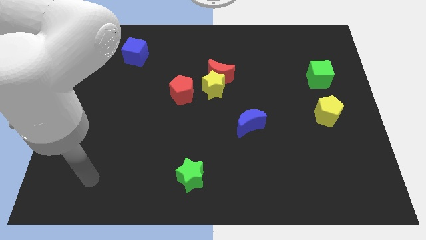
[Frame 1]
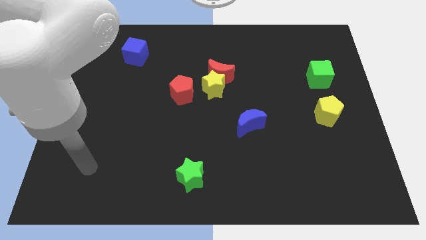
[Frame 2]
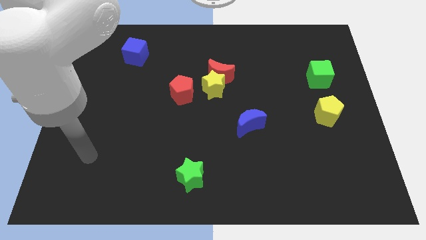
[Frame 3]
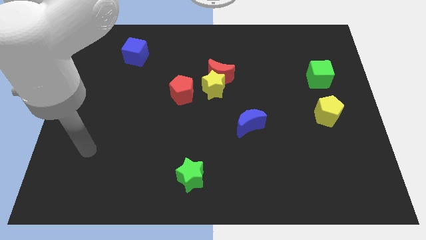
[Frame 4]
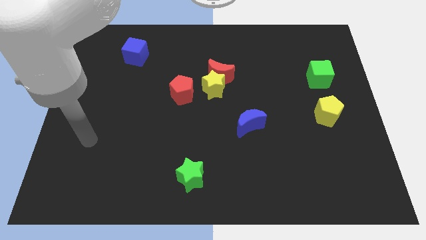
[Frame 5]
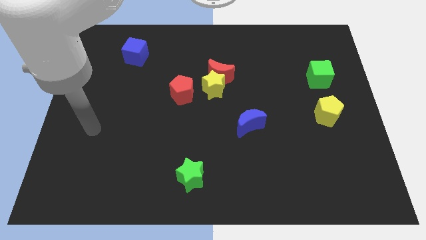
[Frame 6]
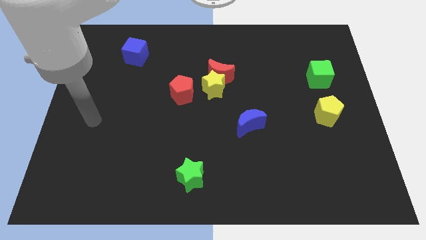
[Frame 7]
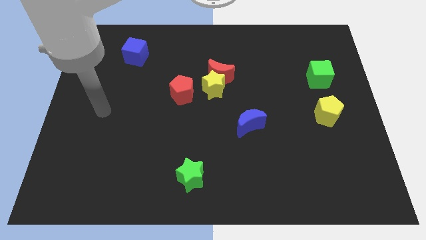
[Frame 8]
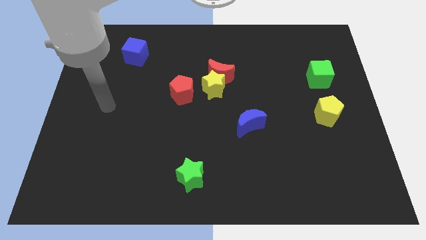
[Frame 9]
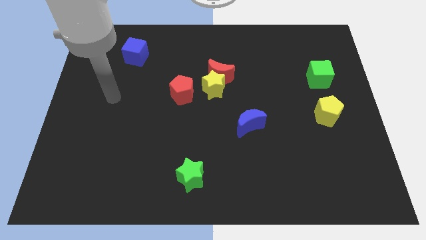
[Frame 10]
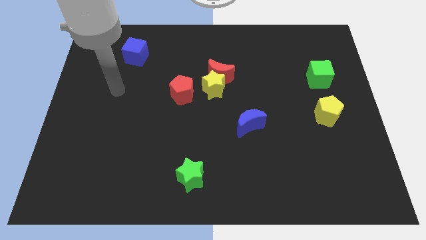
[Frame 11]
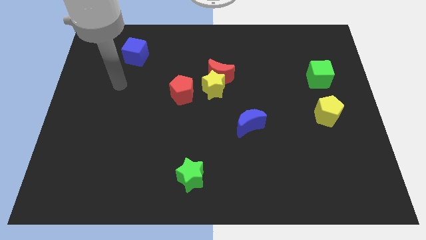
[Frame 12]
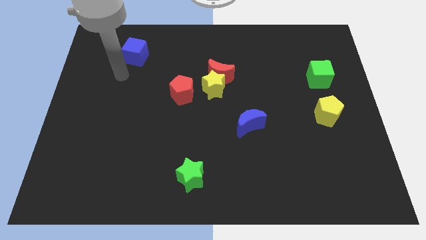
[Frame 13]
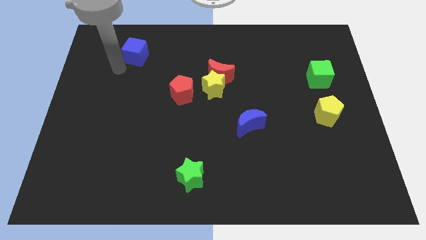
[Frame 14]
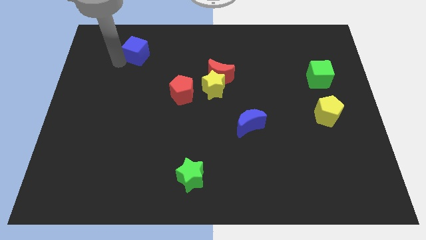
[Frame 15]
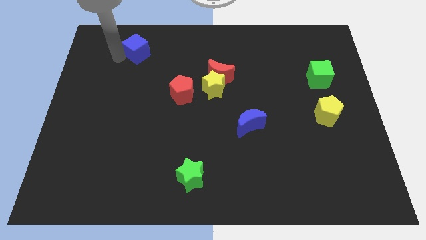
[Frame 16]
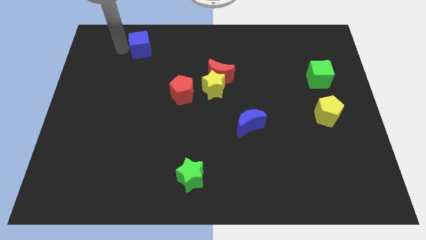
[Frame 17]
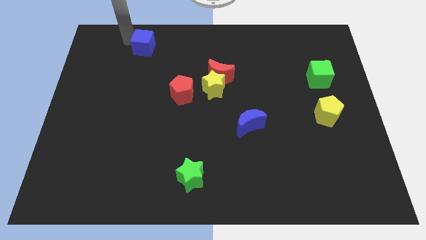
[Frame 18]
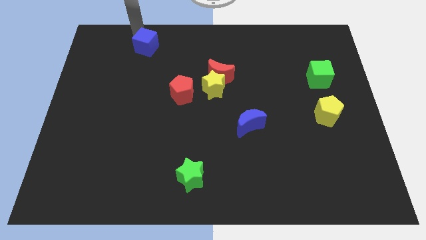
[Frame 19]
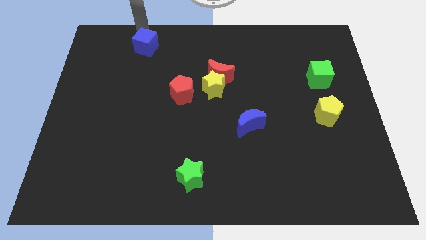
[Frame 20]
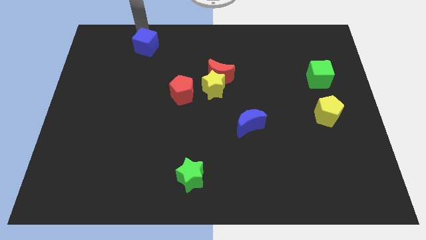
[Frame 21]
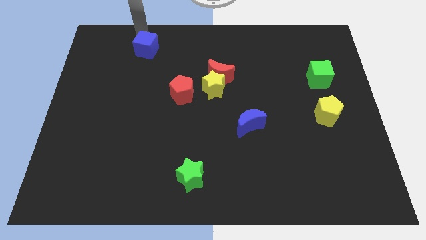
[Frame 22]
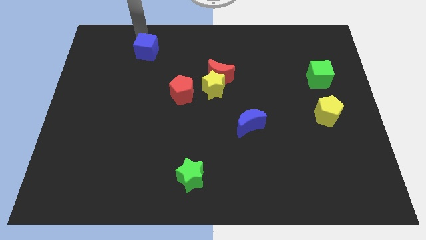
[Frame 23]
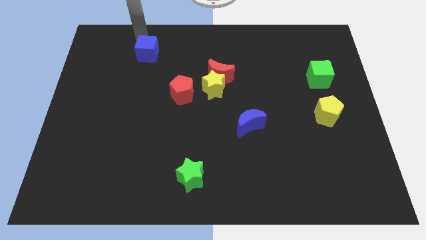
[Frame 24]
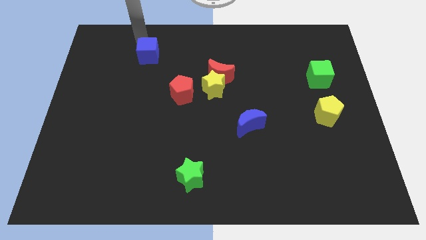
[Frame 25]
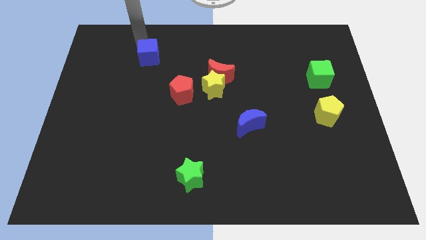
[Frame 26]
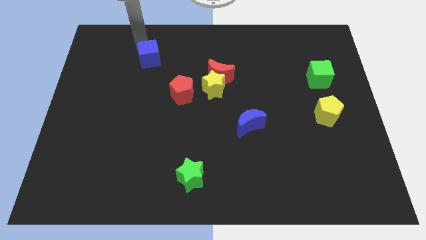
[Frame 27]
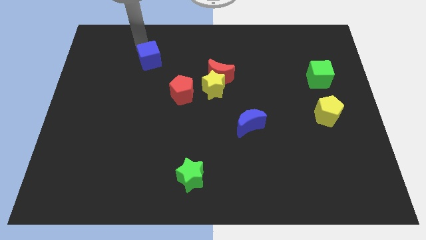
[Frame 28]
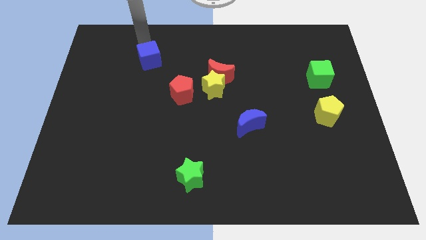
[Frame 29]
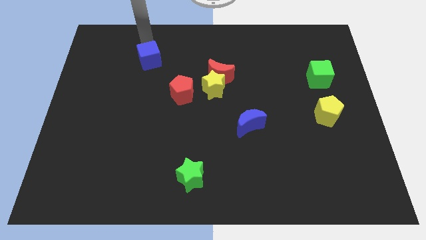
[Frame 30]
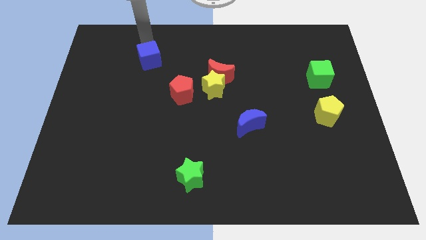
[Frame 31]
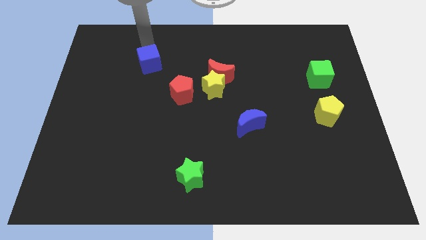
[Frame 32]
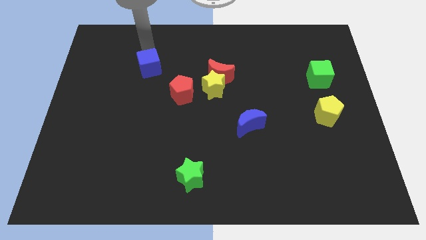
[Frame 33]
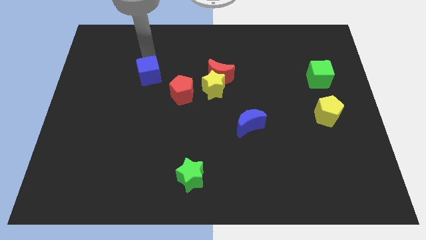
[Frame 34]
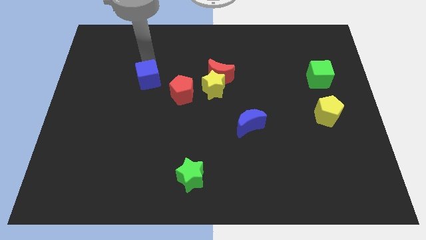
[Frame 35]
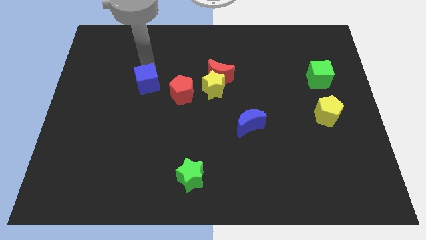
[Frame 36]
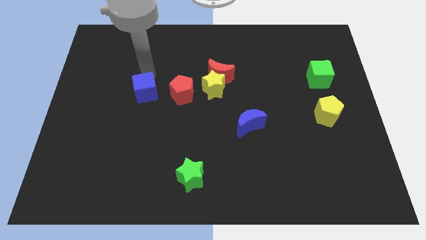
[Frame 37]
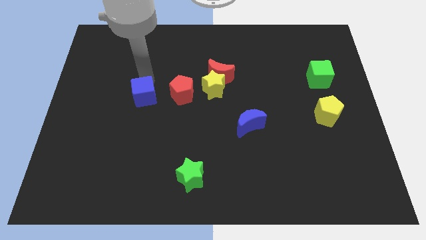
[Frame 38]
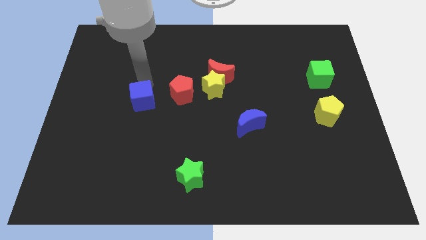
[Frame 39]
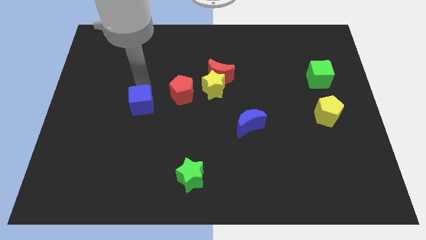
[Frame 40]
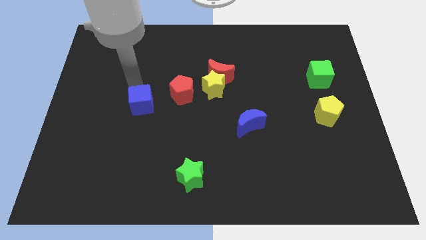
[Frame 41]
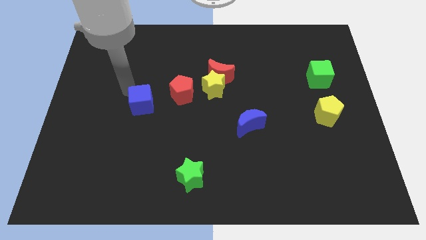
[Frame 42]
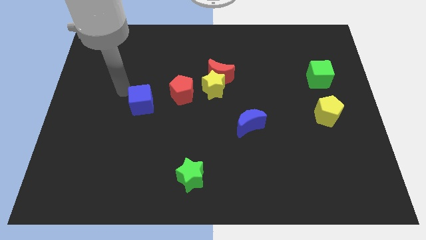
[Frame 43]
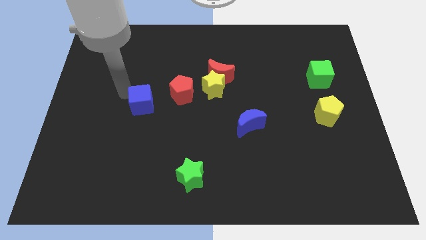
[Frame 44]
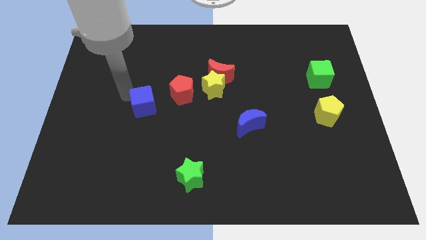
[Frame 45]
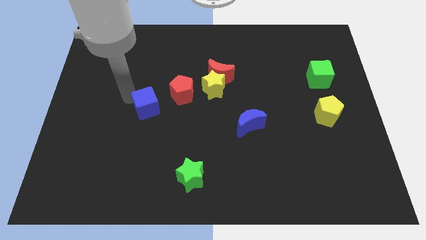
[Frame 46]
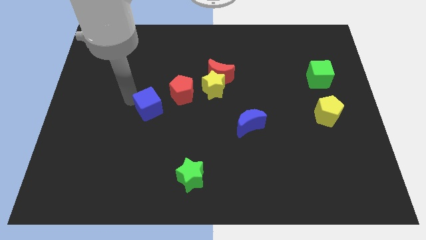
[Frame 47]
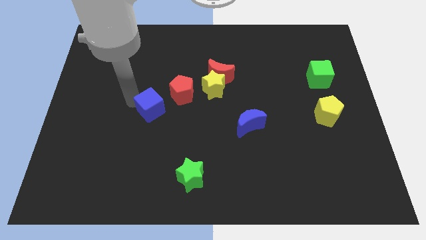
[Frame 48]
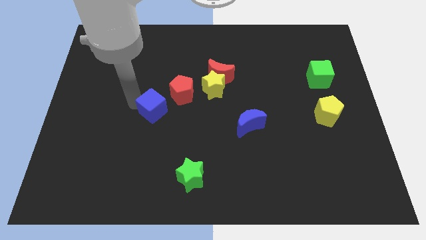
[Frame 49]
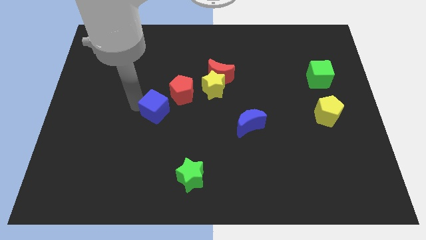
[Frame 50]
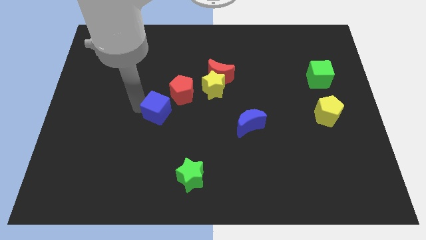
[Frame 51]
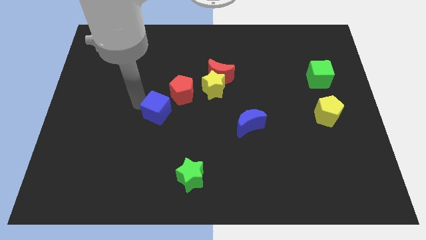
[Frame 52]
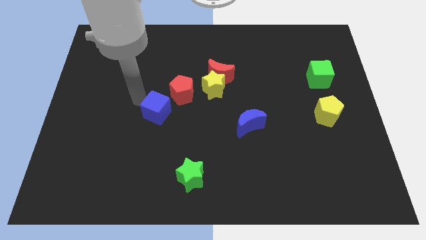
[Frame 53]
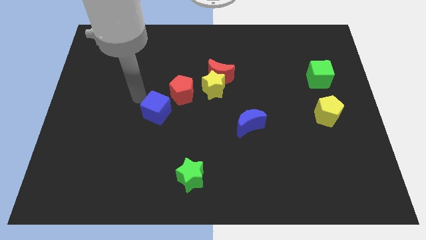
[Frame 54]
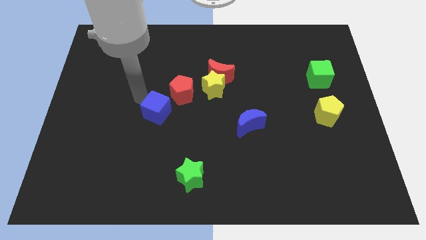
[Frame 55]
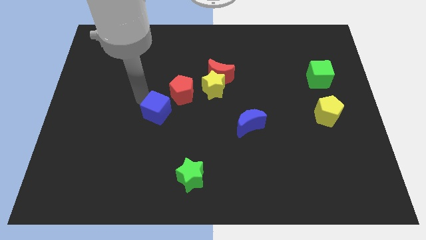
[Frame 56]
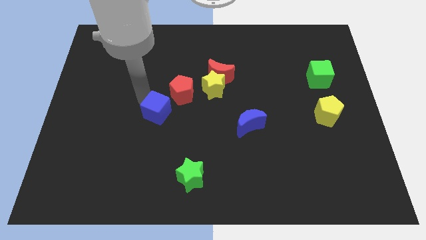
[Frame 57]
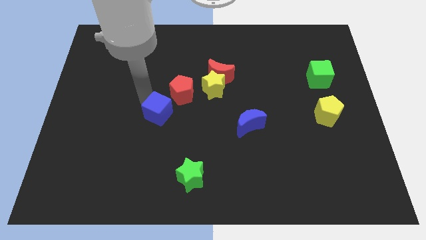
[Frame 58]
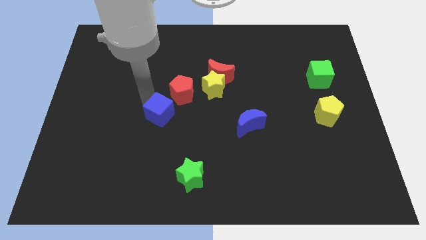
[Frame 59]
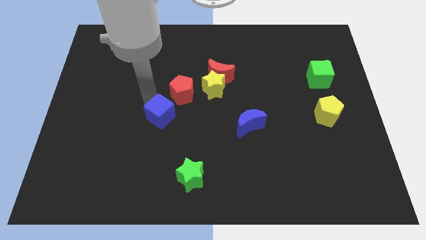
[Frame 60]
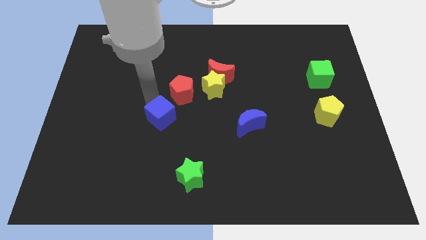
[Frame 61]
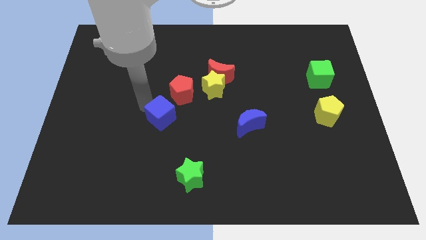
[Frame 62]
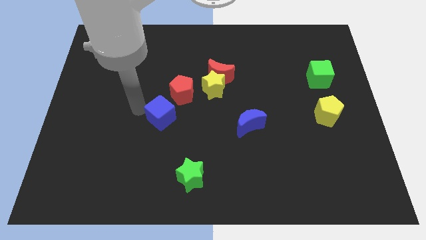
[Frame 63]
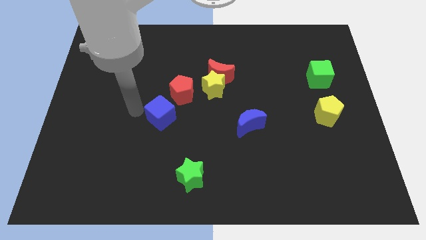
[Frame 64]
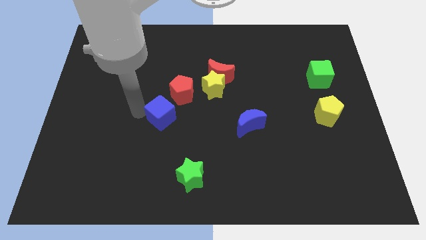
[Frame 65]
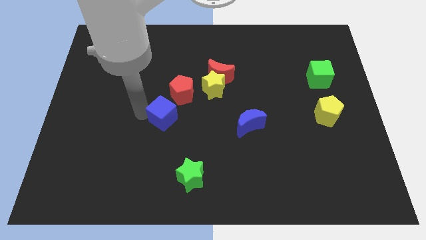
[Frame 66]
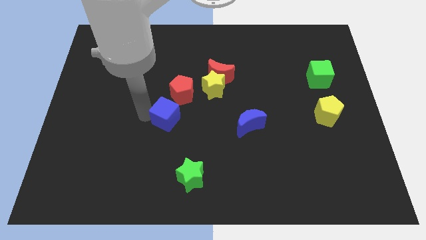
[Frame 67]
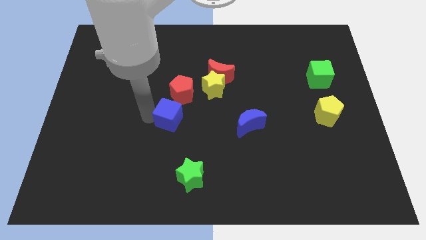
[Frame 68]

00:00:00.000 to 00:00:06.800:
slide the blue cube down and to the right

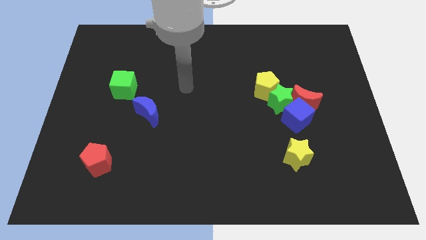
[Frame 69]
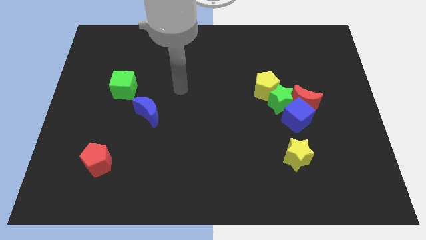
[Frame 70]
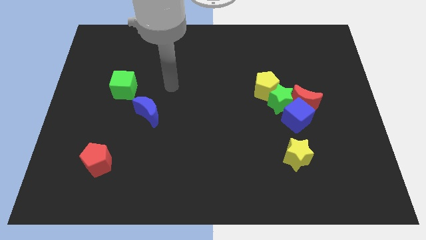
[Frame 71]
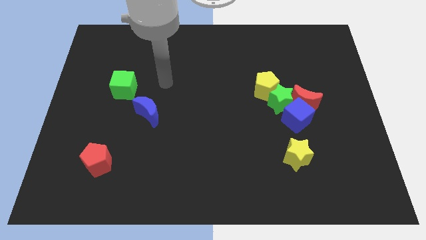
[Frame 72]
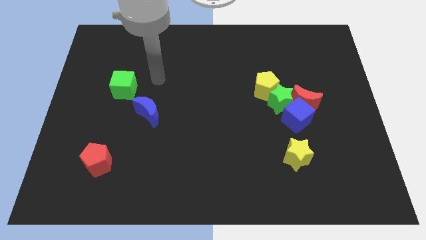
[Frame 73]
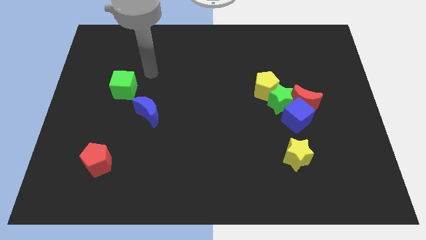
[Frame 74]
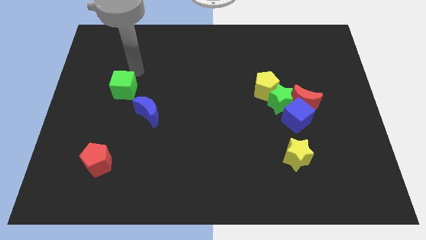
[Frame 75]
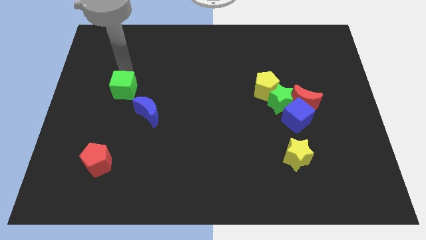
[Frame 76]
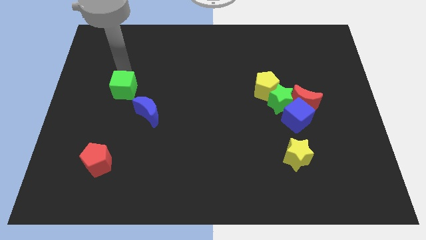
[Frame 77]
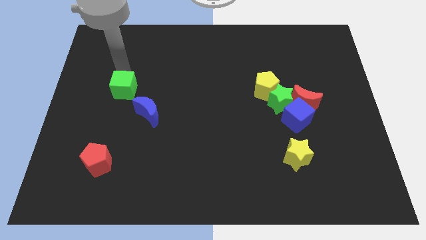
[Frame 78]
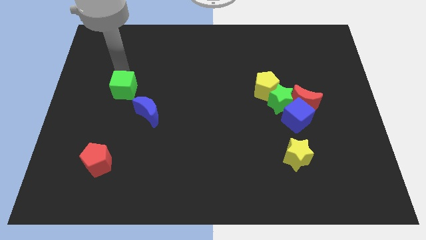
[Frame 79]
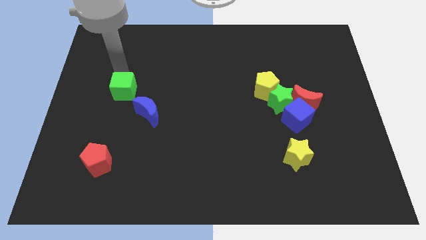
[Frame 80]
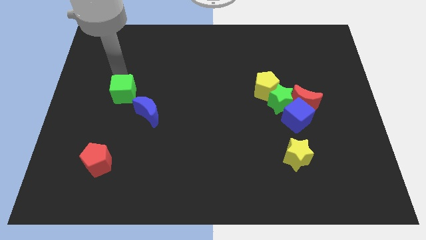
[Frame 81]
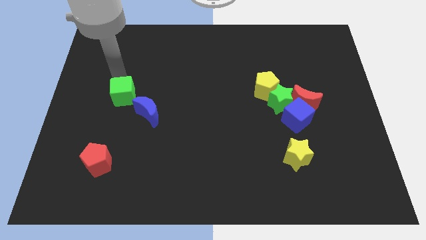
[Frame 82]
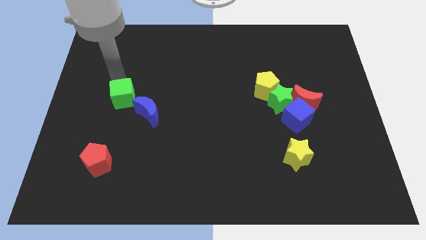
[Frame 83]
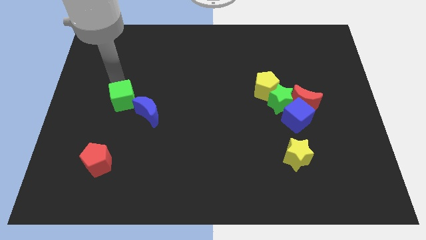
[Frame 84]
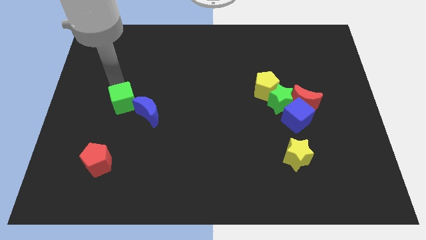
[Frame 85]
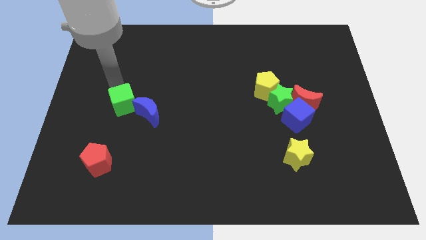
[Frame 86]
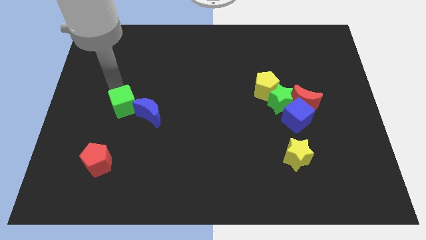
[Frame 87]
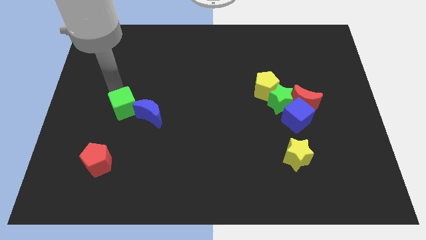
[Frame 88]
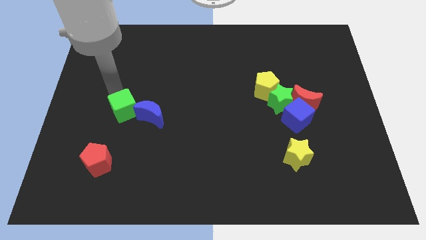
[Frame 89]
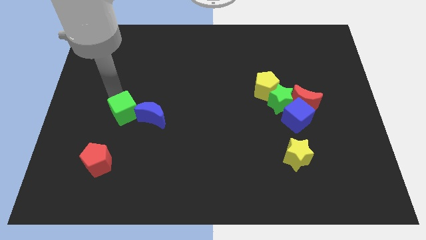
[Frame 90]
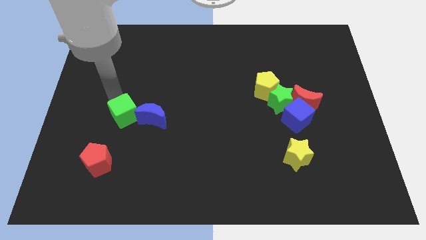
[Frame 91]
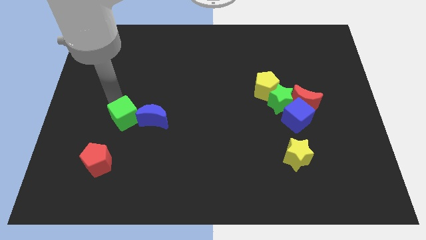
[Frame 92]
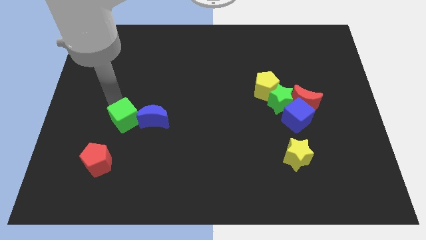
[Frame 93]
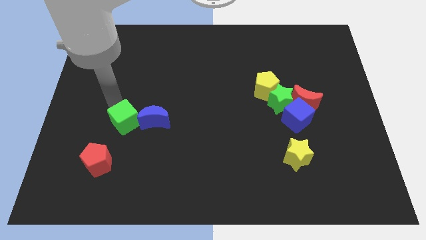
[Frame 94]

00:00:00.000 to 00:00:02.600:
push the green cube a little downwards and to the right diagonally
